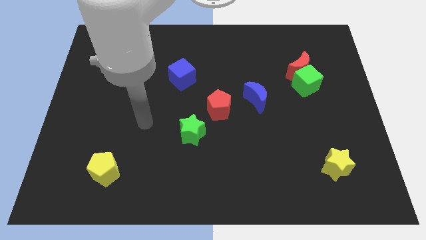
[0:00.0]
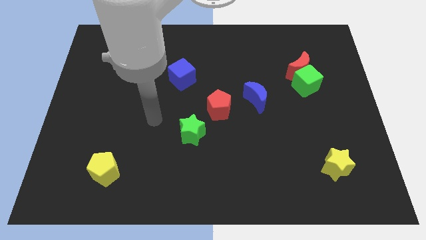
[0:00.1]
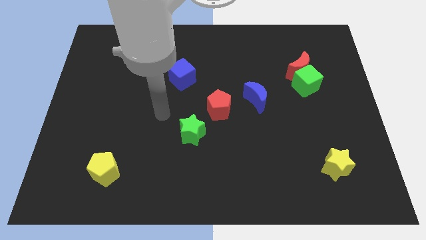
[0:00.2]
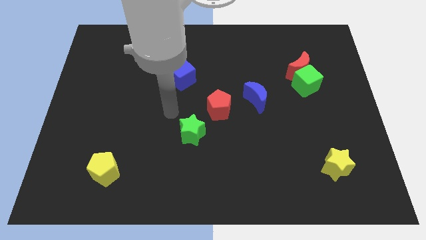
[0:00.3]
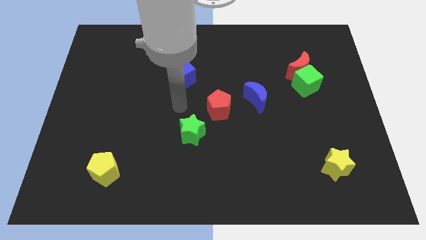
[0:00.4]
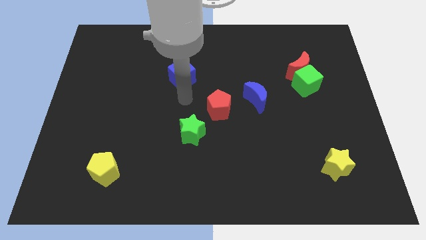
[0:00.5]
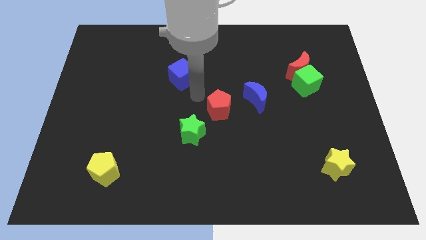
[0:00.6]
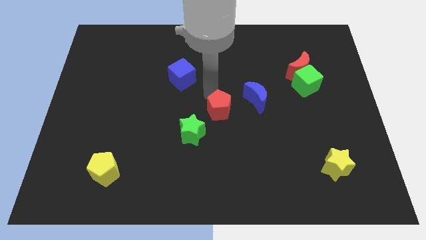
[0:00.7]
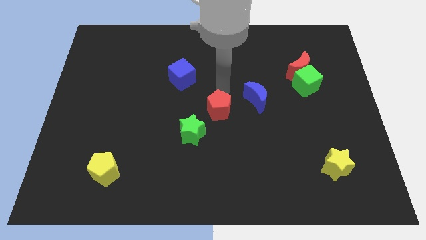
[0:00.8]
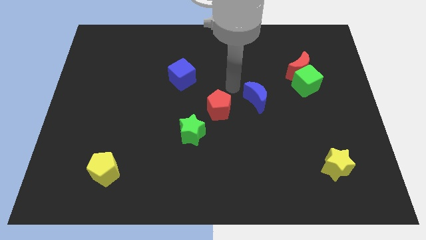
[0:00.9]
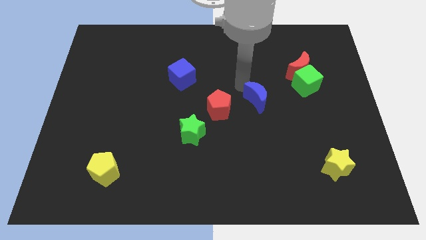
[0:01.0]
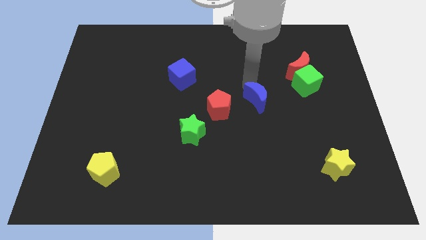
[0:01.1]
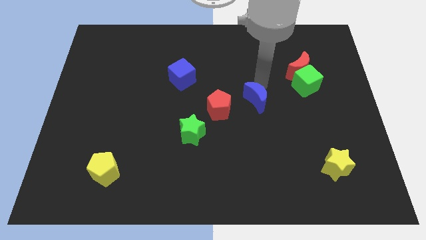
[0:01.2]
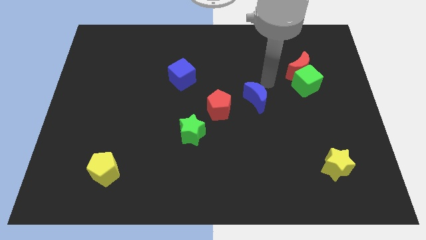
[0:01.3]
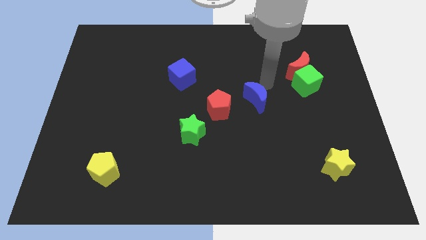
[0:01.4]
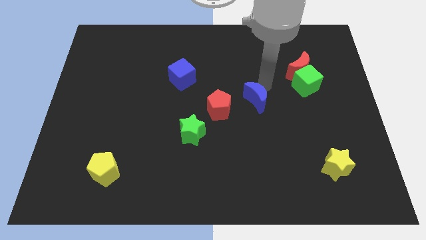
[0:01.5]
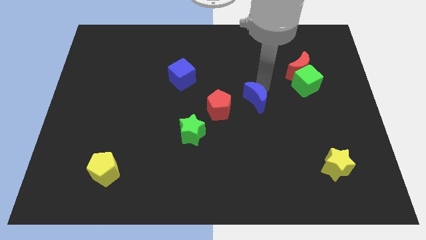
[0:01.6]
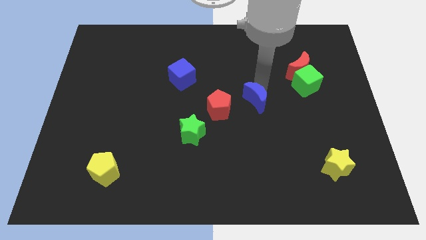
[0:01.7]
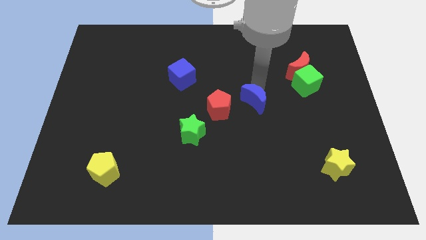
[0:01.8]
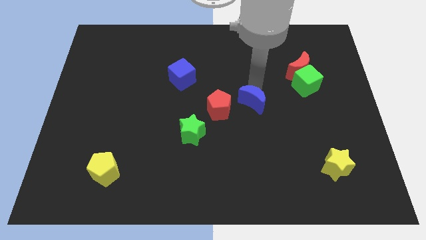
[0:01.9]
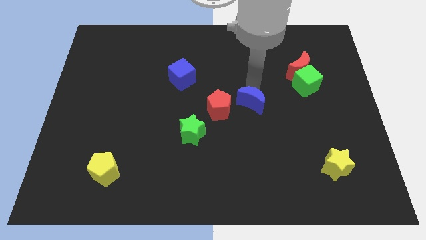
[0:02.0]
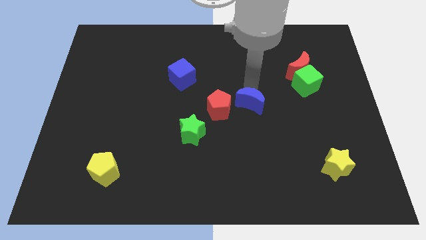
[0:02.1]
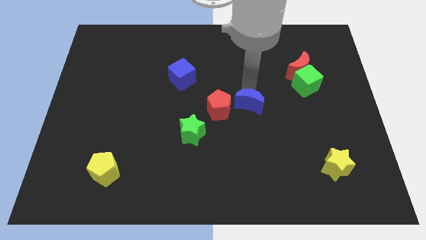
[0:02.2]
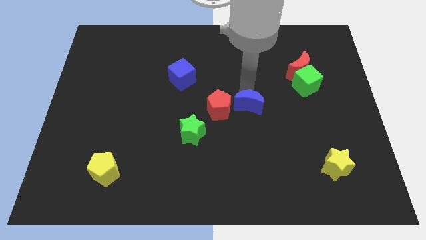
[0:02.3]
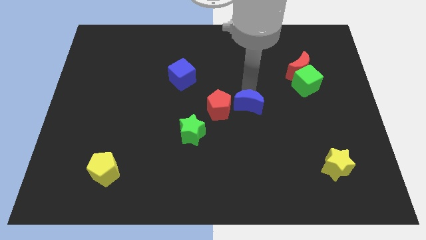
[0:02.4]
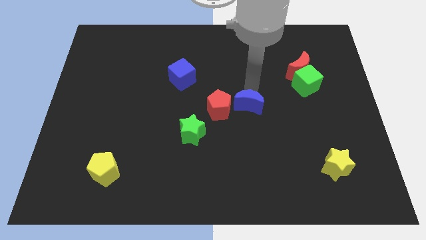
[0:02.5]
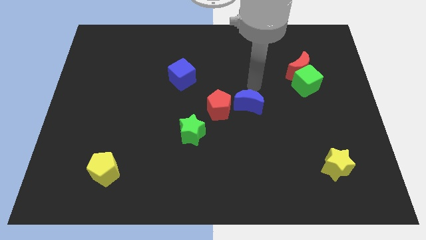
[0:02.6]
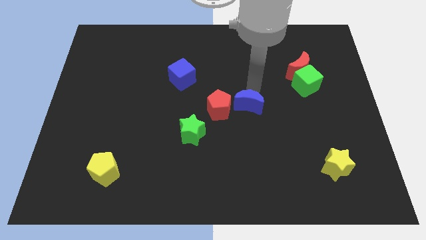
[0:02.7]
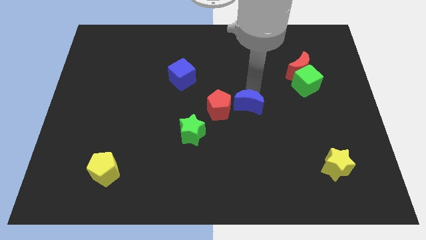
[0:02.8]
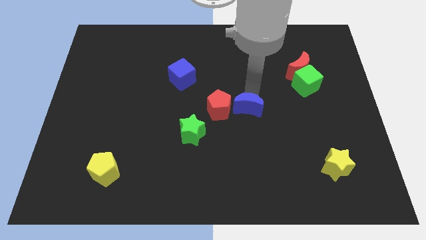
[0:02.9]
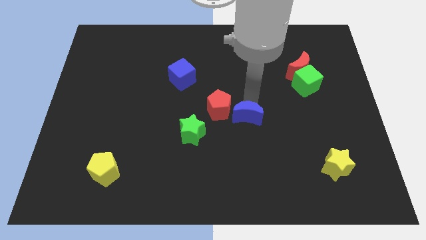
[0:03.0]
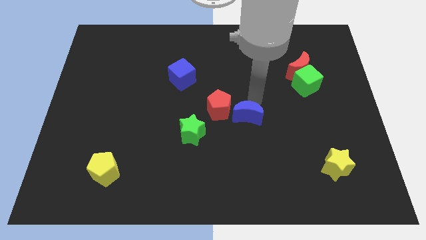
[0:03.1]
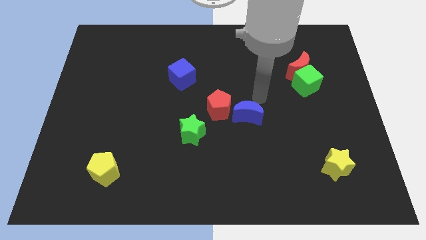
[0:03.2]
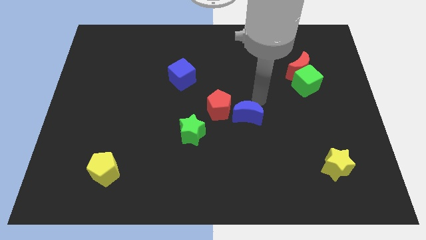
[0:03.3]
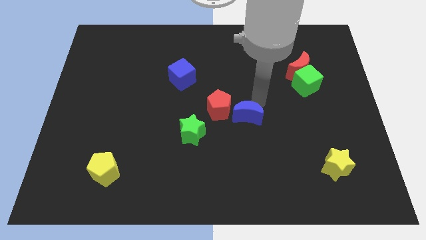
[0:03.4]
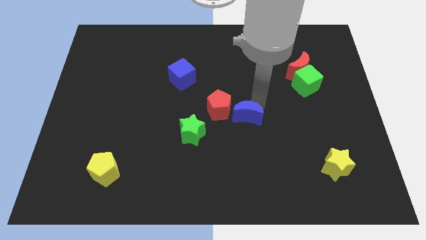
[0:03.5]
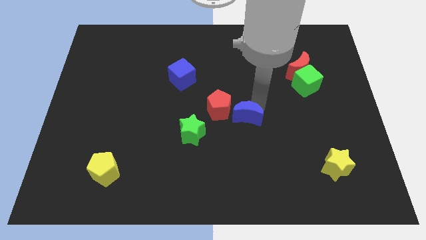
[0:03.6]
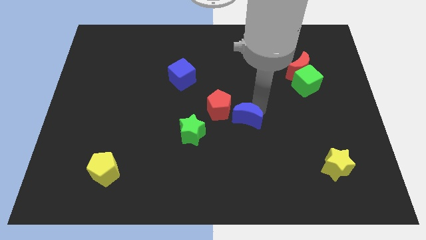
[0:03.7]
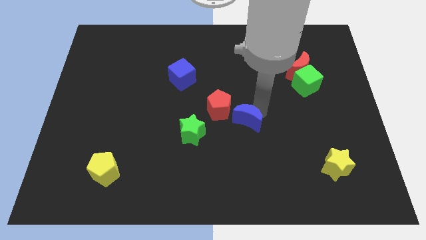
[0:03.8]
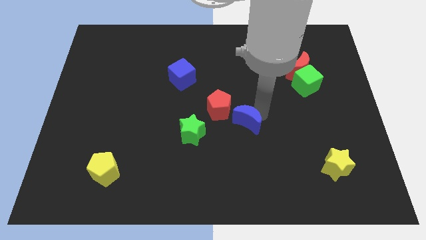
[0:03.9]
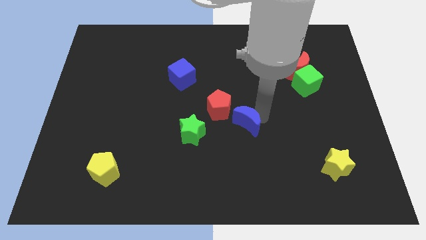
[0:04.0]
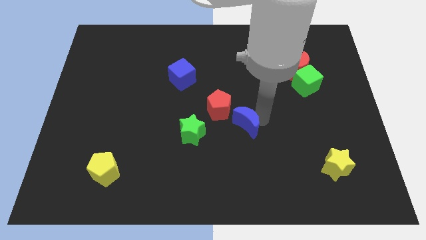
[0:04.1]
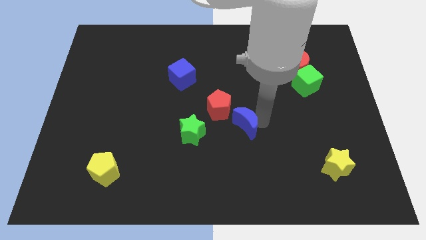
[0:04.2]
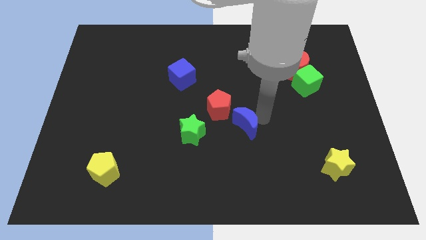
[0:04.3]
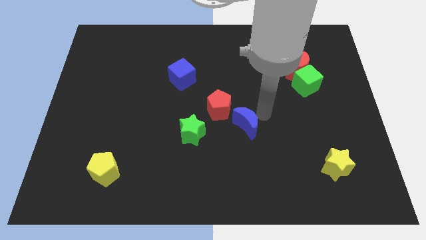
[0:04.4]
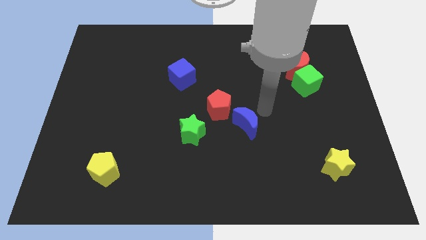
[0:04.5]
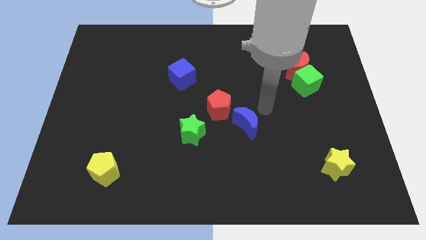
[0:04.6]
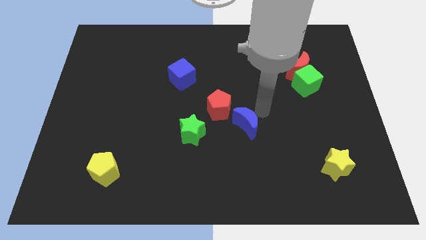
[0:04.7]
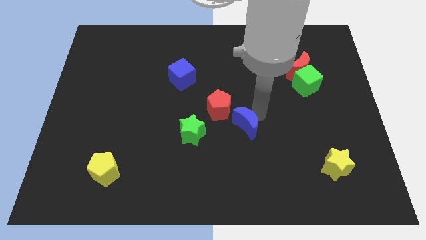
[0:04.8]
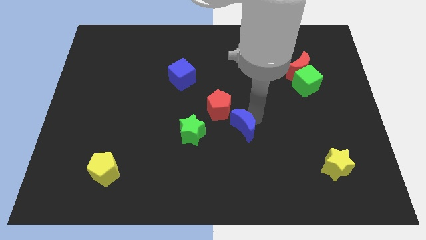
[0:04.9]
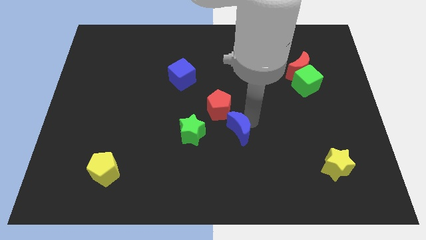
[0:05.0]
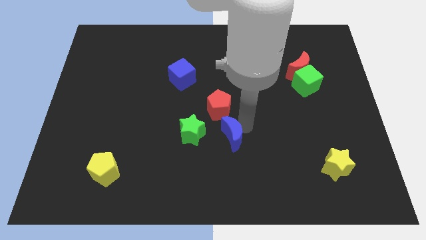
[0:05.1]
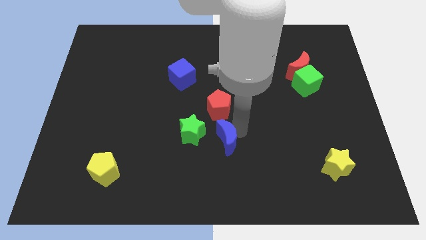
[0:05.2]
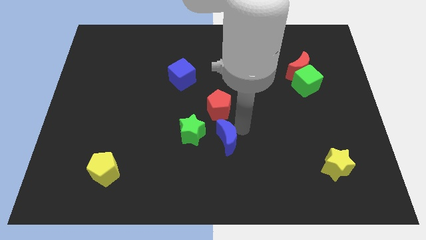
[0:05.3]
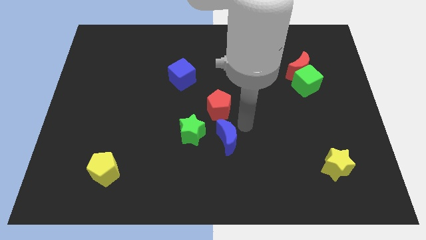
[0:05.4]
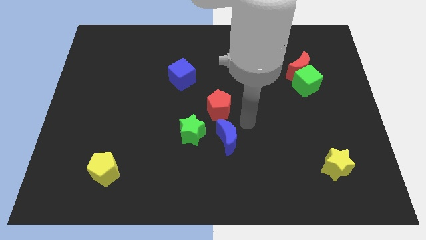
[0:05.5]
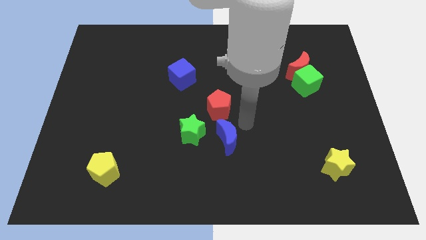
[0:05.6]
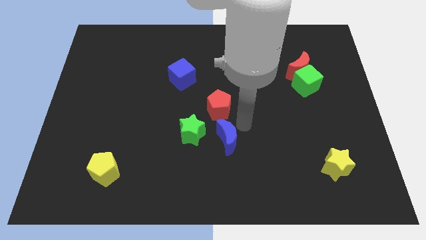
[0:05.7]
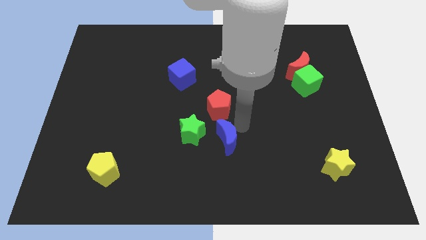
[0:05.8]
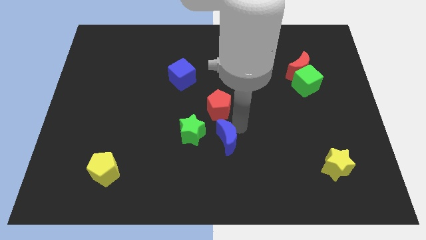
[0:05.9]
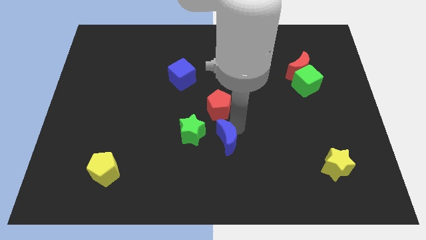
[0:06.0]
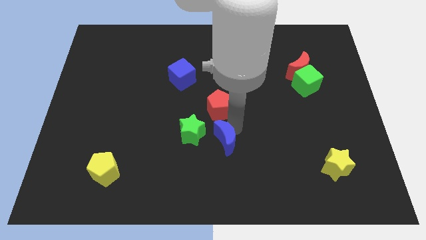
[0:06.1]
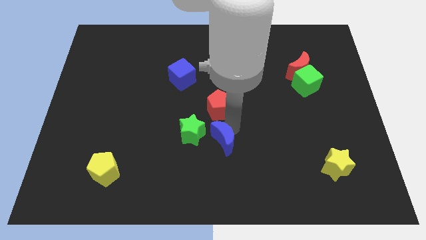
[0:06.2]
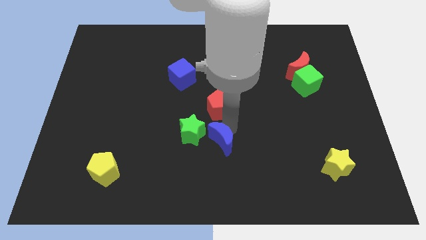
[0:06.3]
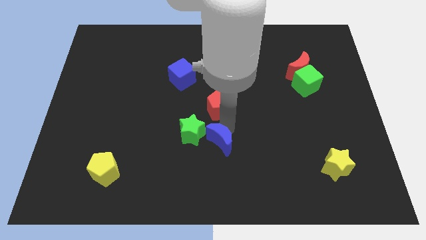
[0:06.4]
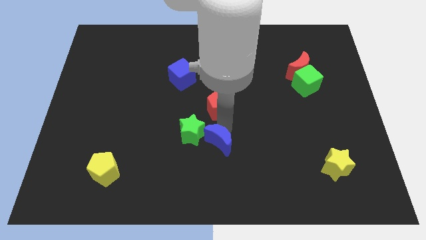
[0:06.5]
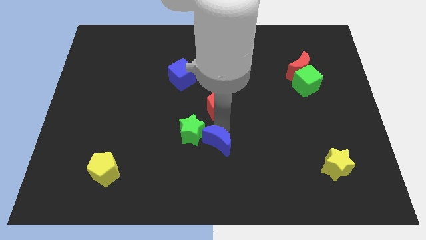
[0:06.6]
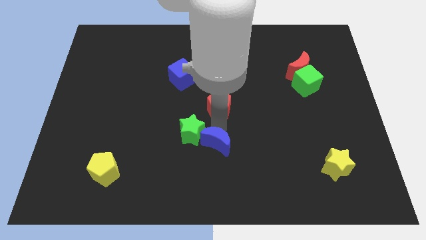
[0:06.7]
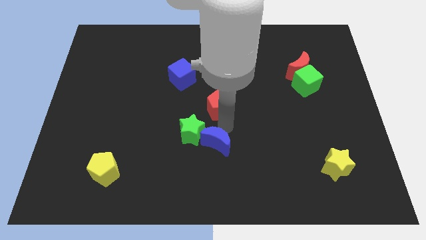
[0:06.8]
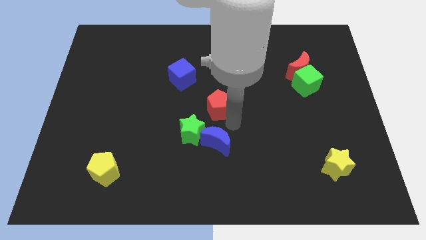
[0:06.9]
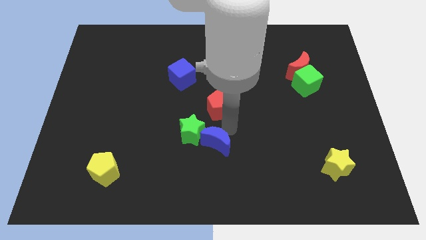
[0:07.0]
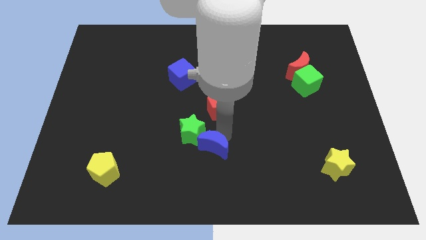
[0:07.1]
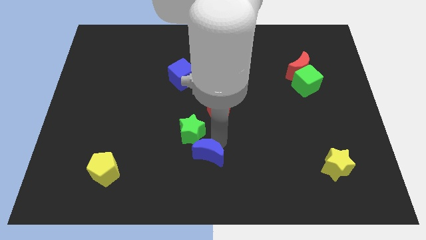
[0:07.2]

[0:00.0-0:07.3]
move the blue moon below the green star

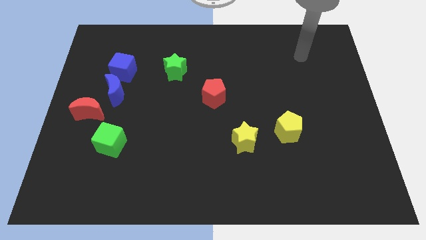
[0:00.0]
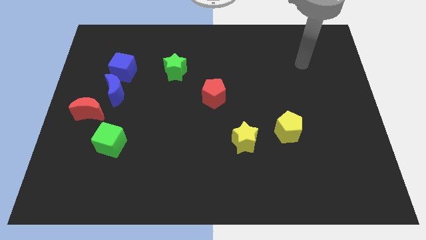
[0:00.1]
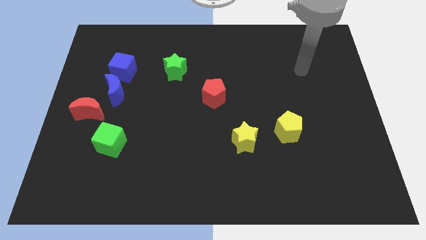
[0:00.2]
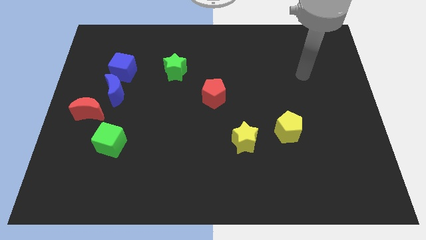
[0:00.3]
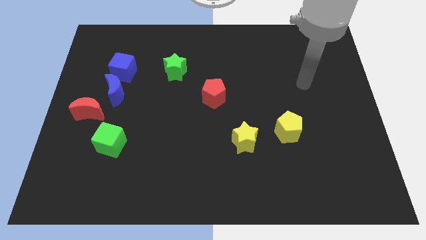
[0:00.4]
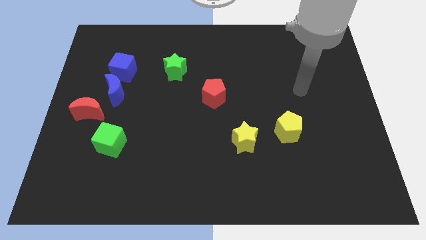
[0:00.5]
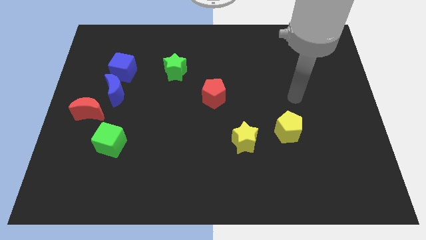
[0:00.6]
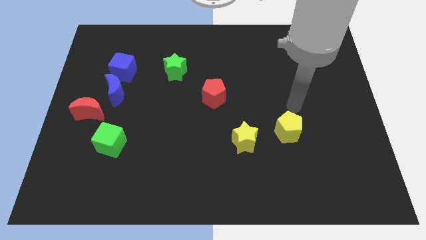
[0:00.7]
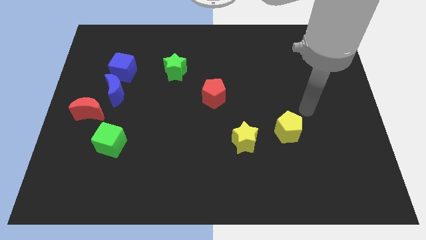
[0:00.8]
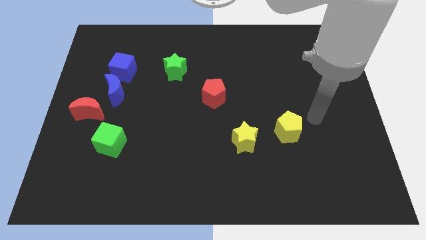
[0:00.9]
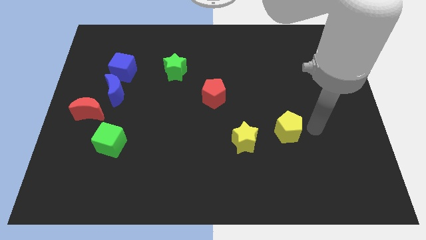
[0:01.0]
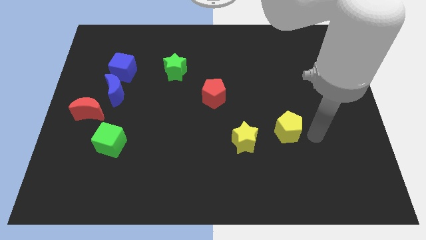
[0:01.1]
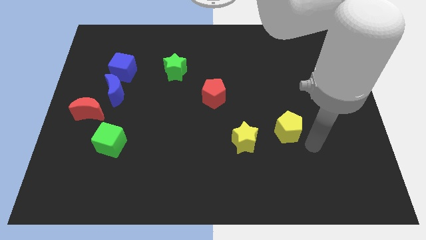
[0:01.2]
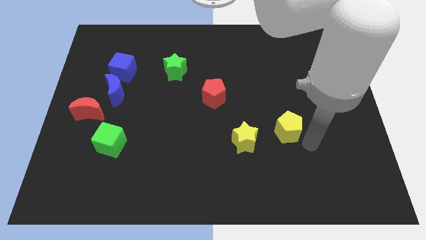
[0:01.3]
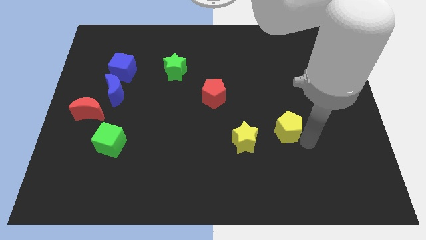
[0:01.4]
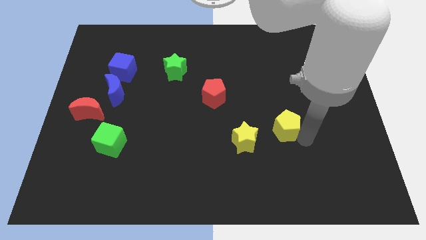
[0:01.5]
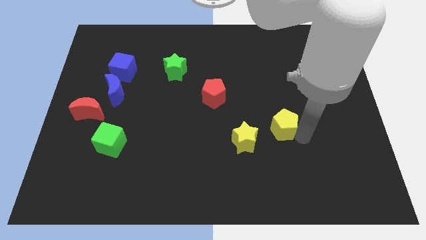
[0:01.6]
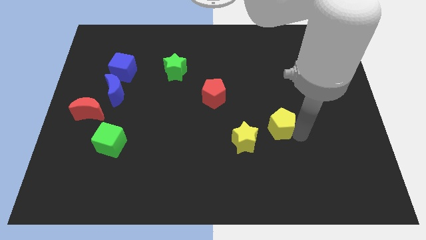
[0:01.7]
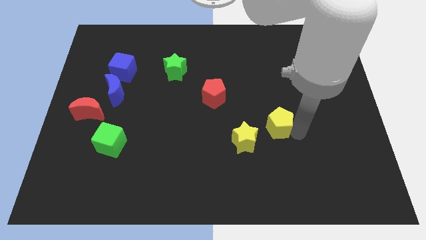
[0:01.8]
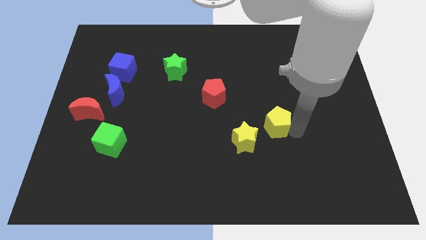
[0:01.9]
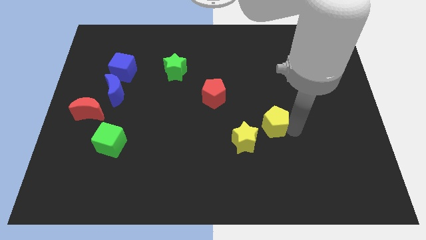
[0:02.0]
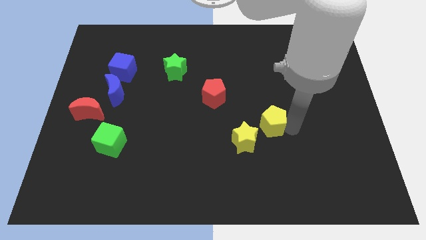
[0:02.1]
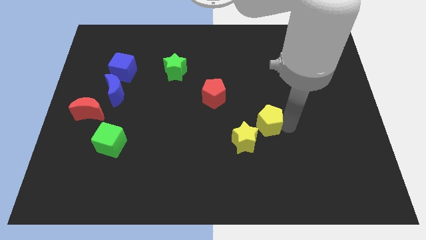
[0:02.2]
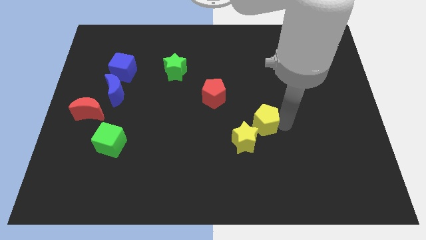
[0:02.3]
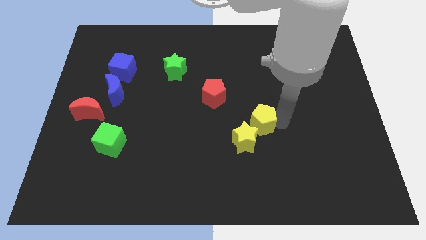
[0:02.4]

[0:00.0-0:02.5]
slide the yellow pentagon to the top side of the yellow star
